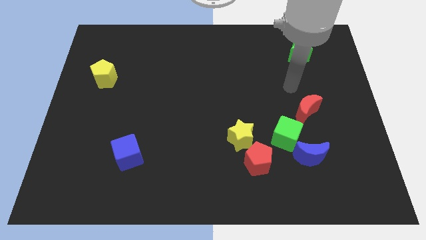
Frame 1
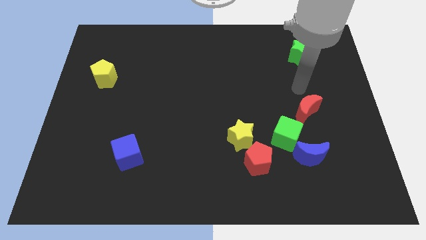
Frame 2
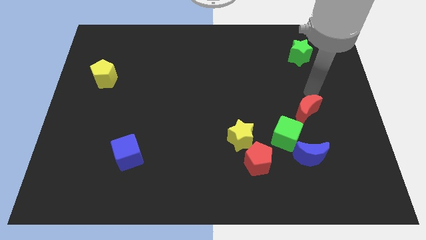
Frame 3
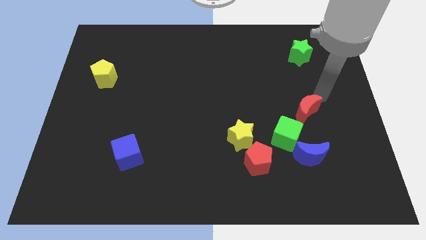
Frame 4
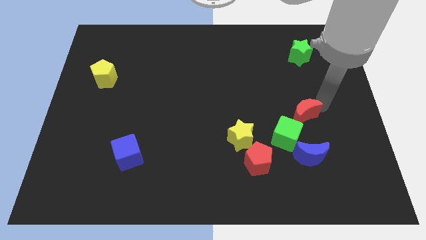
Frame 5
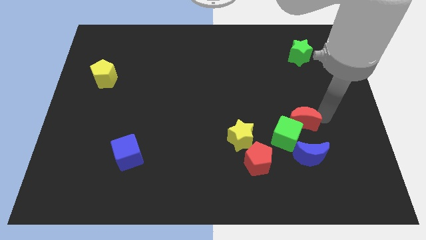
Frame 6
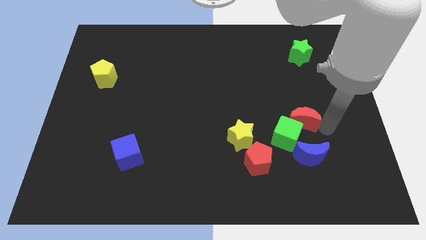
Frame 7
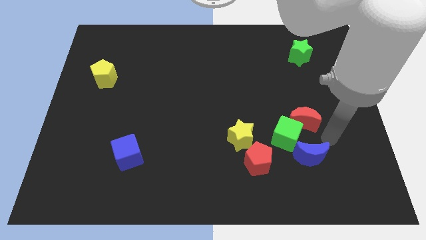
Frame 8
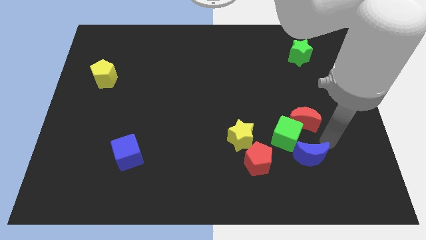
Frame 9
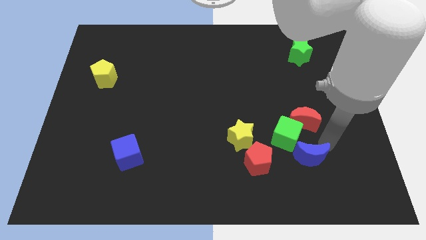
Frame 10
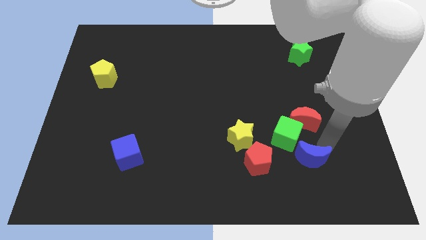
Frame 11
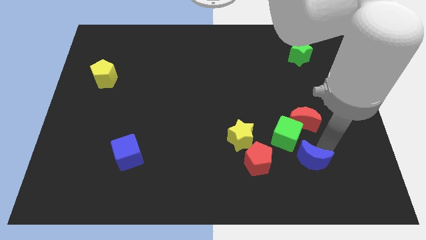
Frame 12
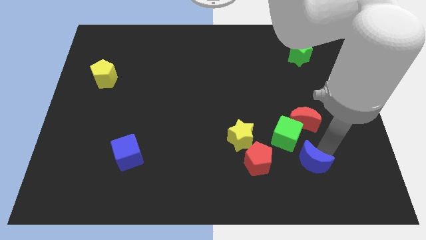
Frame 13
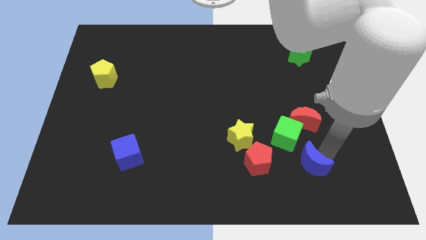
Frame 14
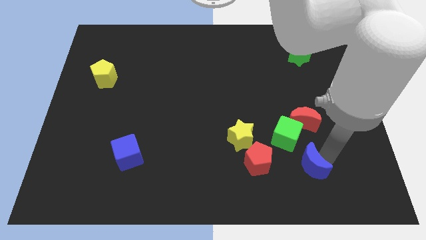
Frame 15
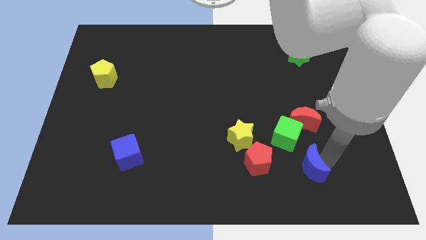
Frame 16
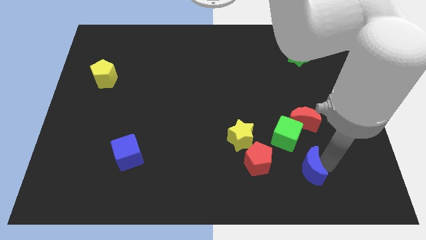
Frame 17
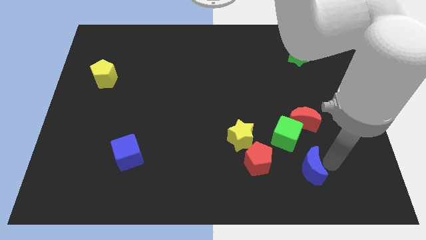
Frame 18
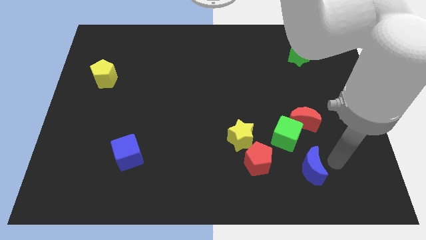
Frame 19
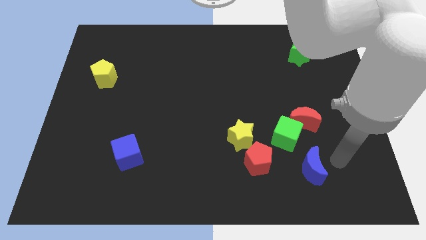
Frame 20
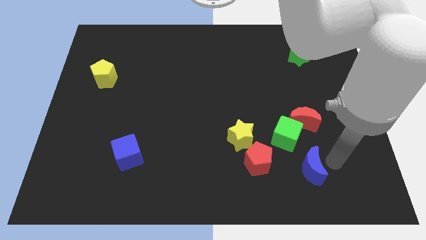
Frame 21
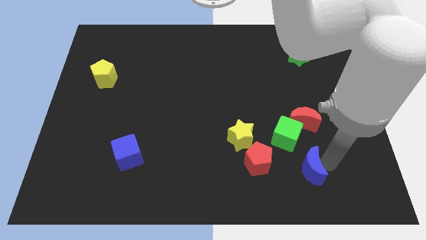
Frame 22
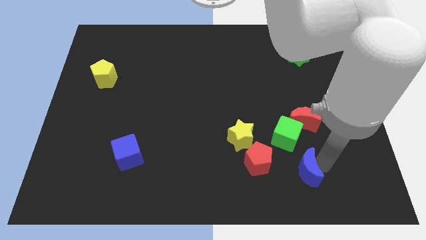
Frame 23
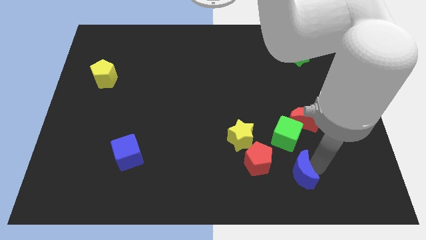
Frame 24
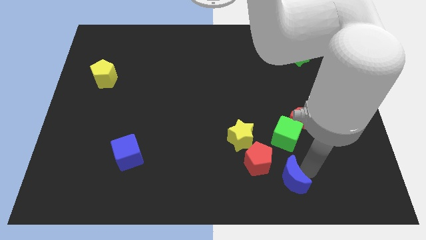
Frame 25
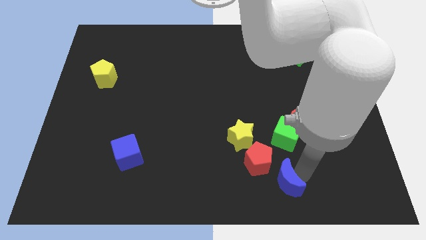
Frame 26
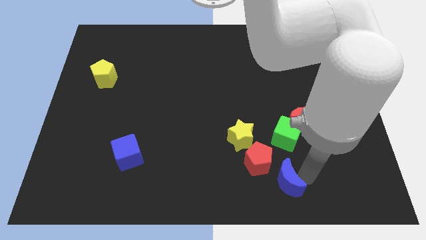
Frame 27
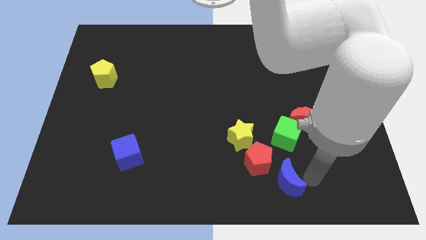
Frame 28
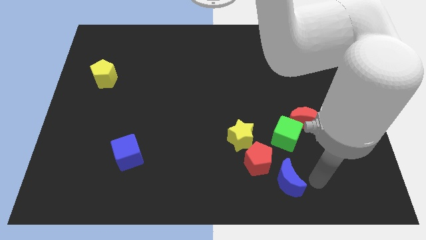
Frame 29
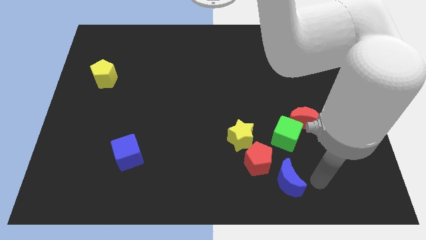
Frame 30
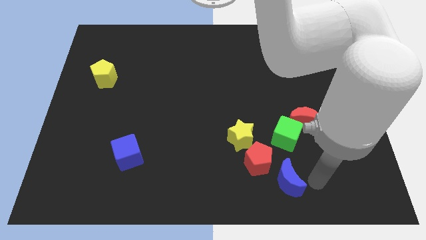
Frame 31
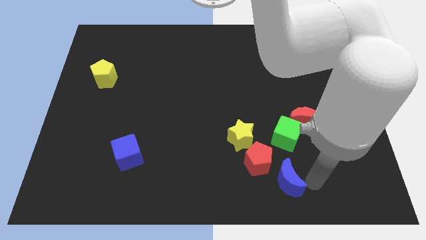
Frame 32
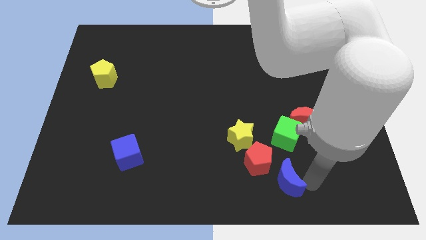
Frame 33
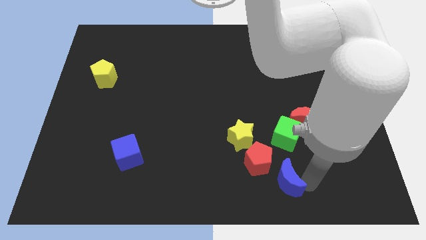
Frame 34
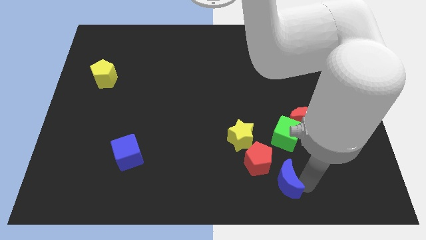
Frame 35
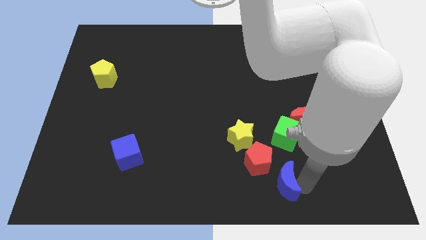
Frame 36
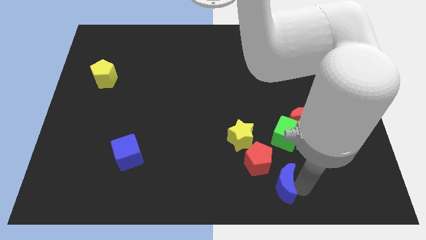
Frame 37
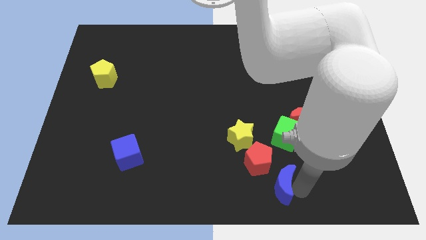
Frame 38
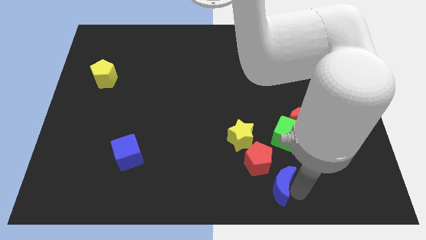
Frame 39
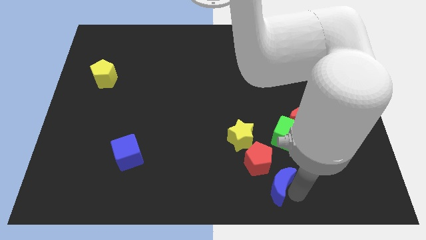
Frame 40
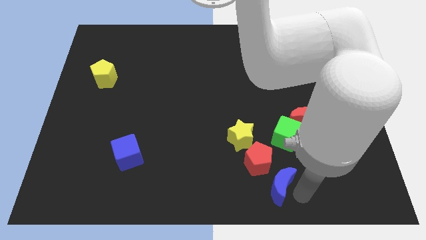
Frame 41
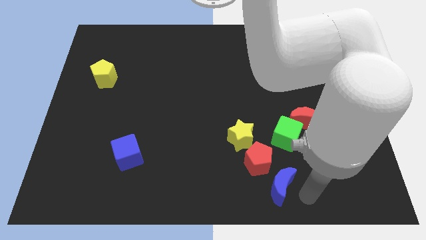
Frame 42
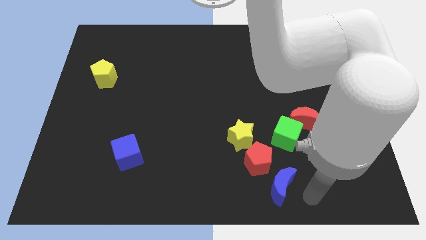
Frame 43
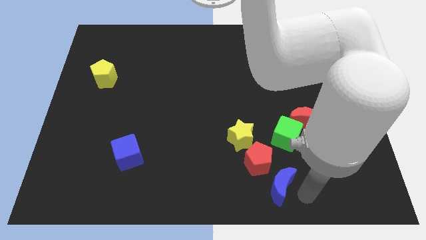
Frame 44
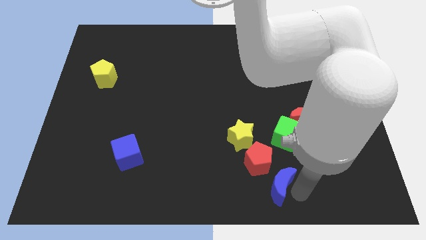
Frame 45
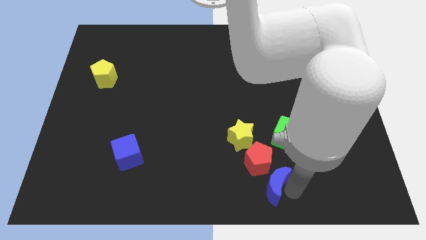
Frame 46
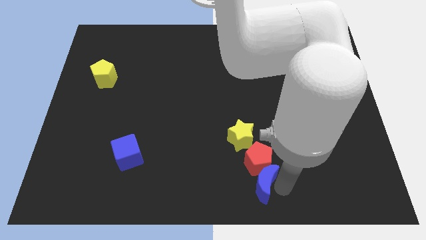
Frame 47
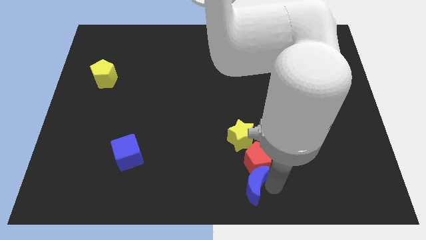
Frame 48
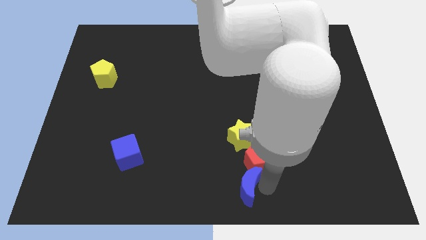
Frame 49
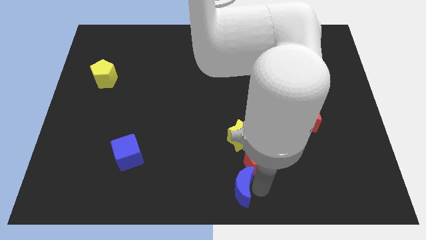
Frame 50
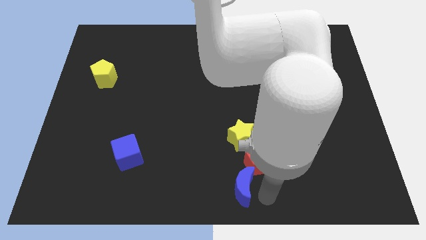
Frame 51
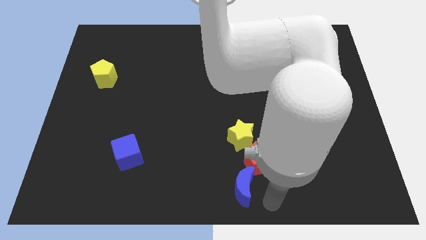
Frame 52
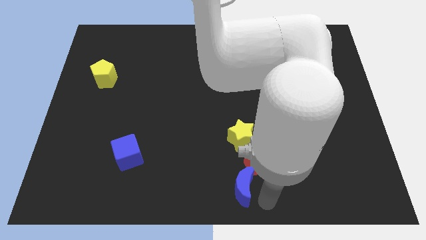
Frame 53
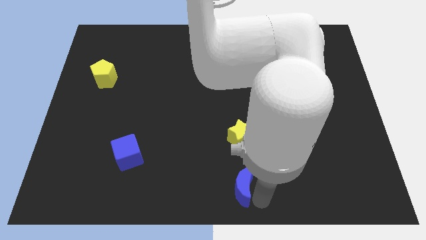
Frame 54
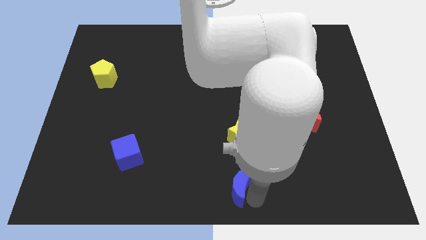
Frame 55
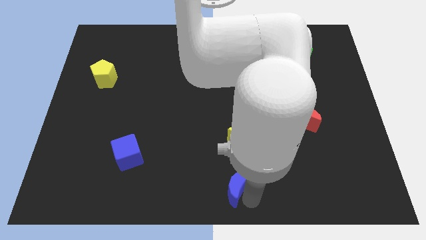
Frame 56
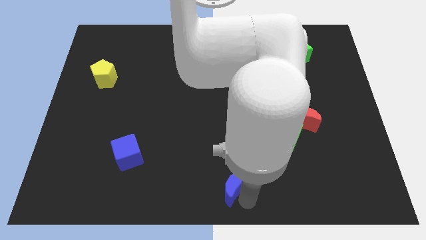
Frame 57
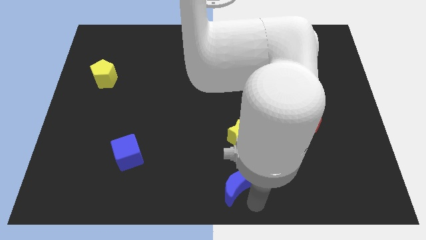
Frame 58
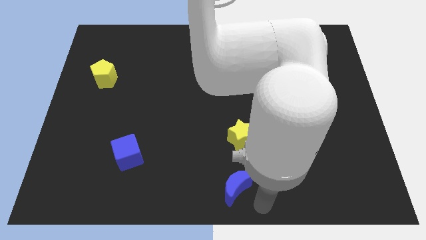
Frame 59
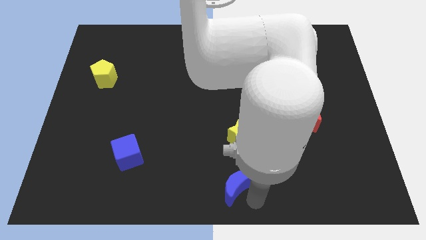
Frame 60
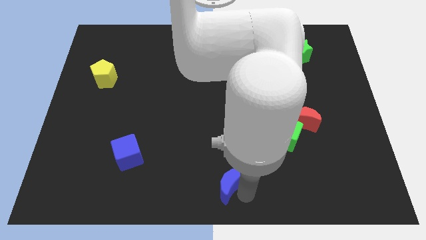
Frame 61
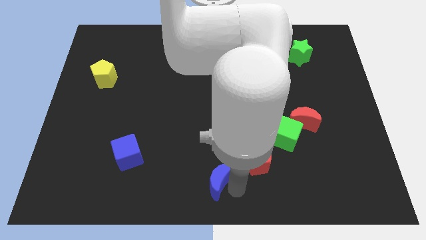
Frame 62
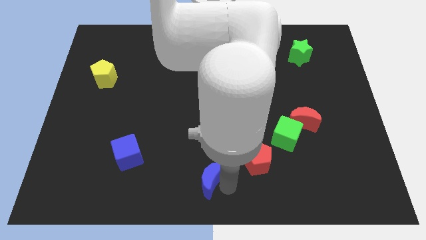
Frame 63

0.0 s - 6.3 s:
move the blue moon to the left

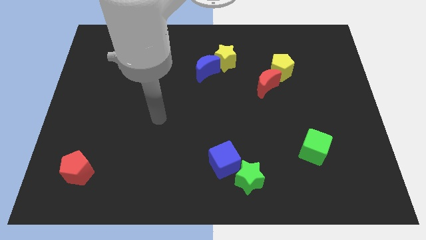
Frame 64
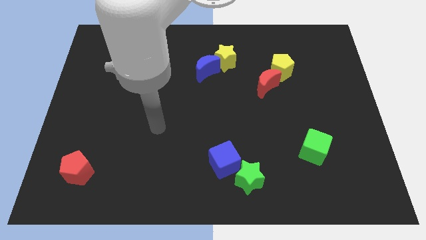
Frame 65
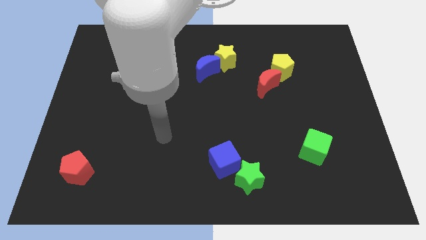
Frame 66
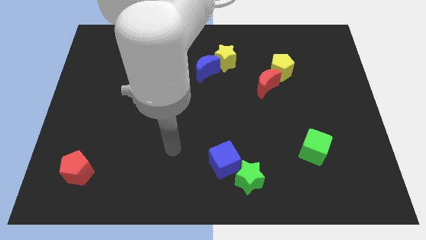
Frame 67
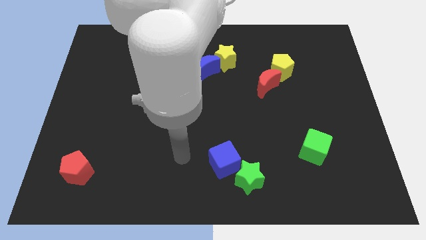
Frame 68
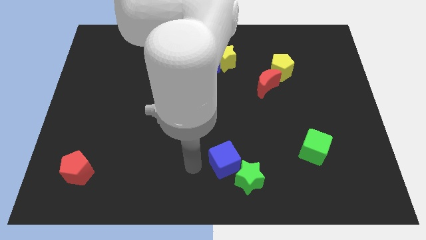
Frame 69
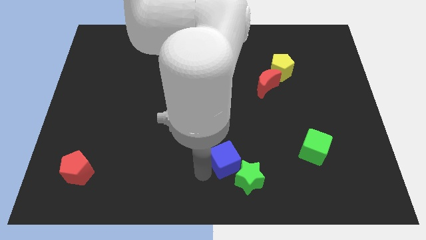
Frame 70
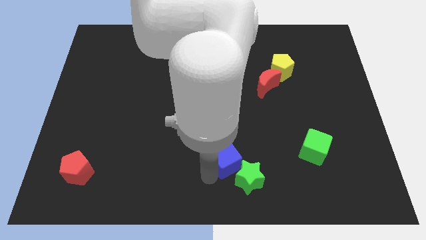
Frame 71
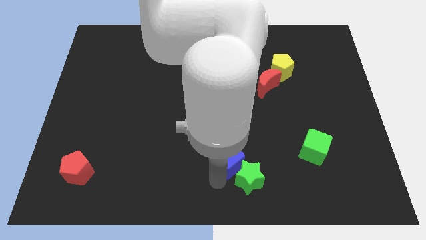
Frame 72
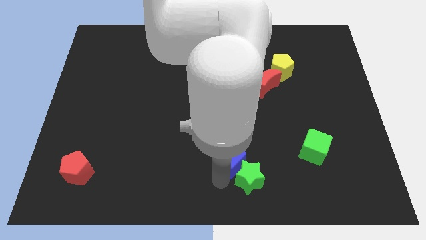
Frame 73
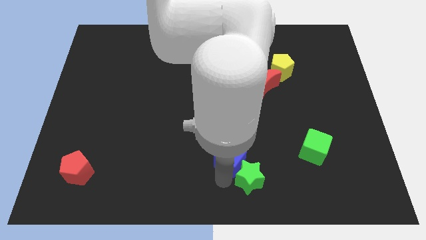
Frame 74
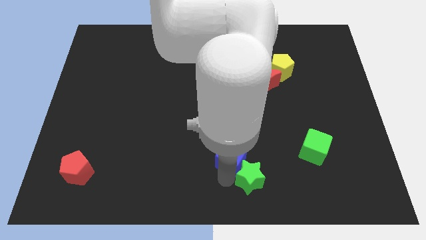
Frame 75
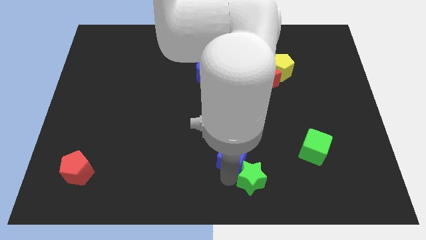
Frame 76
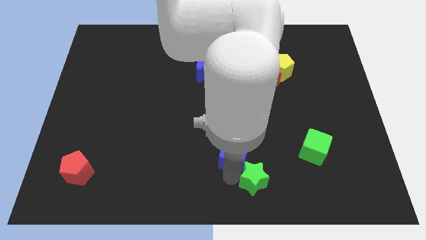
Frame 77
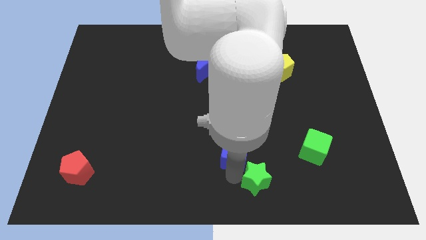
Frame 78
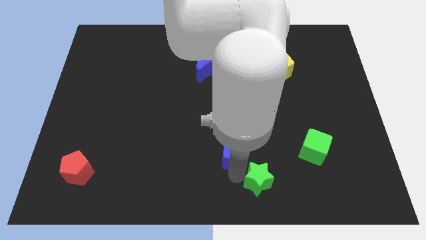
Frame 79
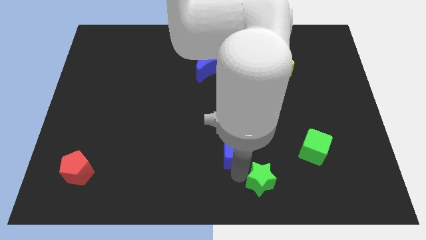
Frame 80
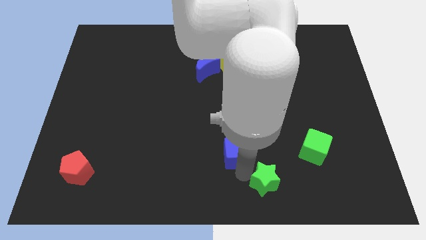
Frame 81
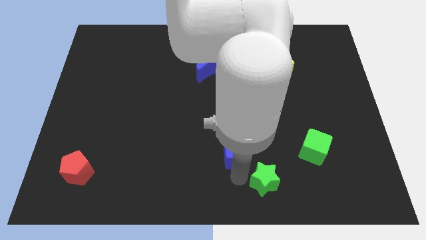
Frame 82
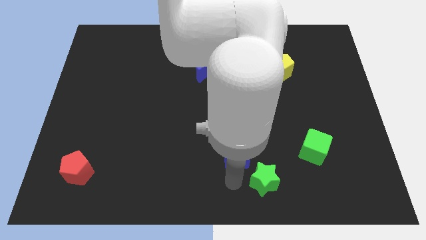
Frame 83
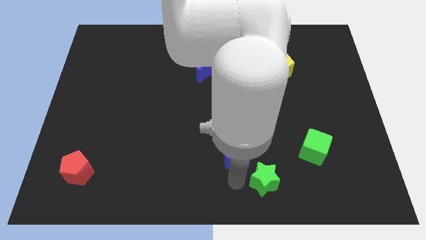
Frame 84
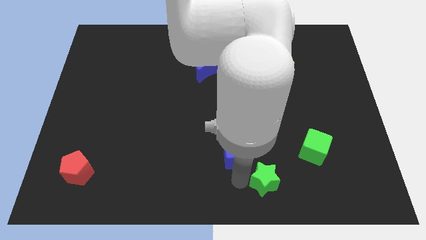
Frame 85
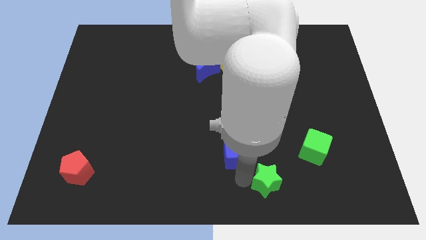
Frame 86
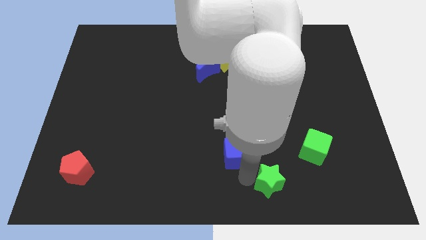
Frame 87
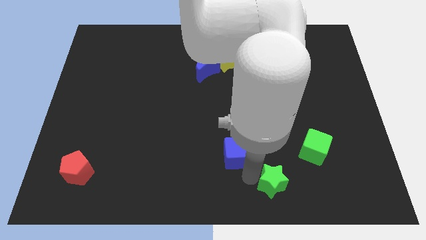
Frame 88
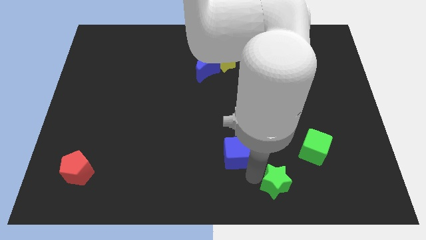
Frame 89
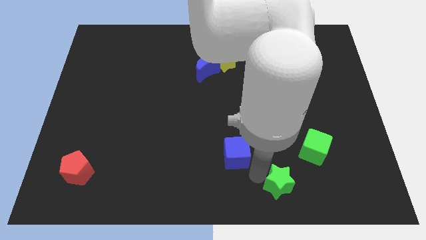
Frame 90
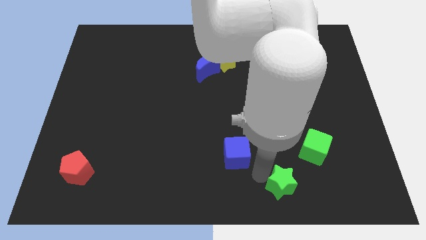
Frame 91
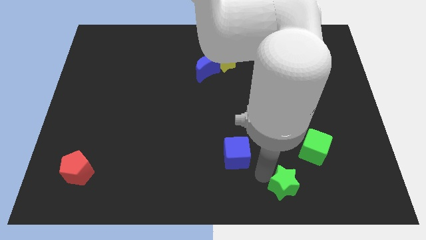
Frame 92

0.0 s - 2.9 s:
slide the green star to the right a little
